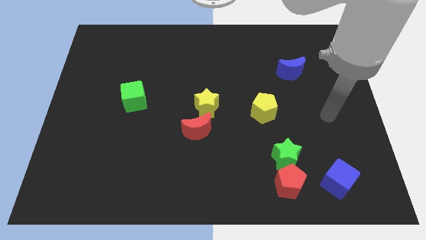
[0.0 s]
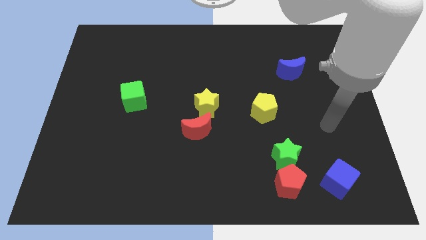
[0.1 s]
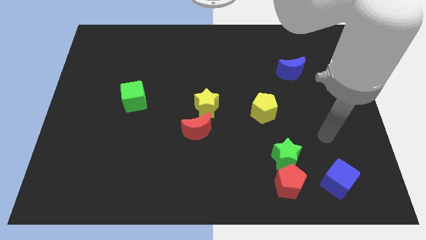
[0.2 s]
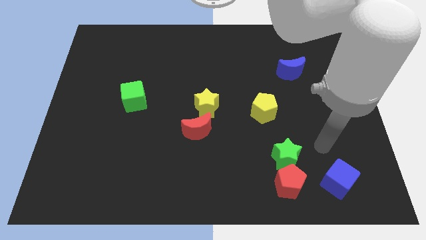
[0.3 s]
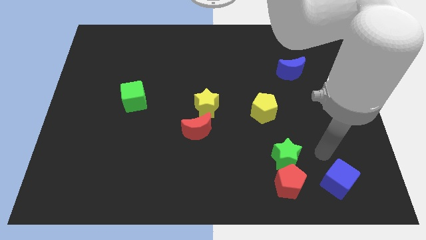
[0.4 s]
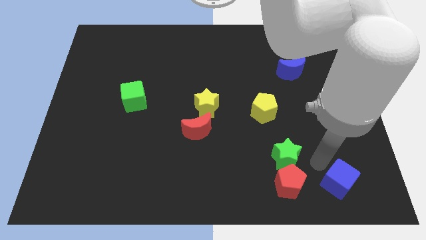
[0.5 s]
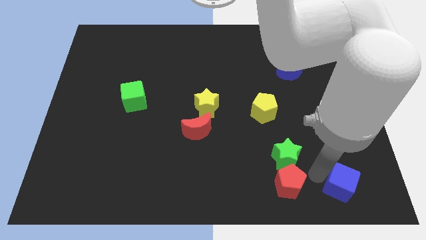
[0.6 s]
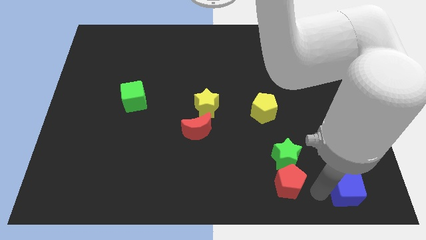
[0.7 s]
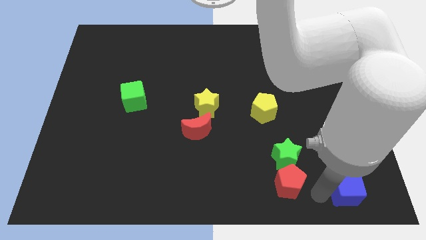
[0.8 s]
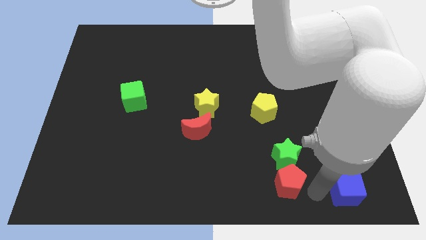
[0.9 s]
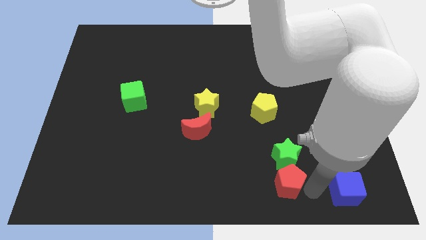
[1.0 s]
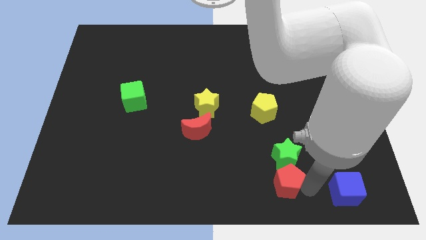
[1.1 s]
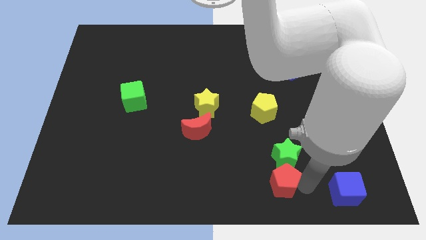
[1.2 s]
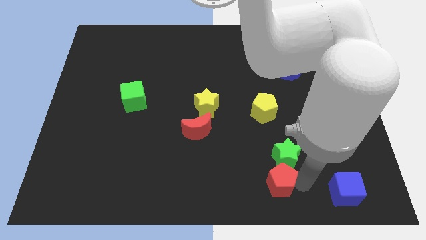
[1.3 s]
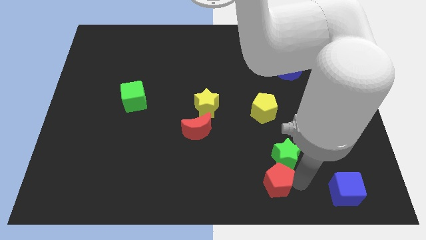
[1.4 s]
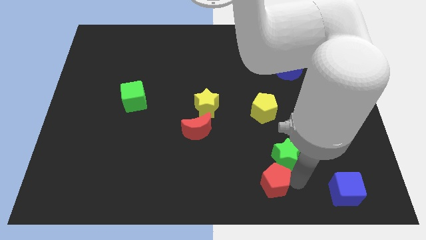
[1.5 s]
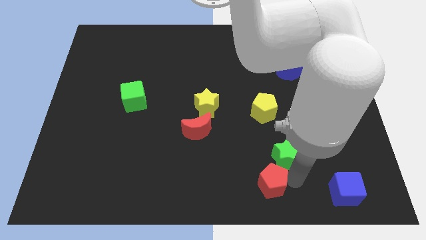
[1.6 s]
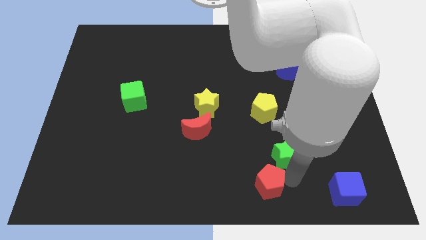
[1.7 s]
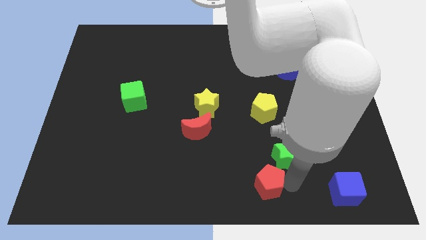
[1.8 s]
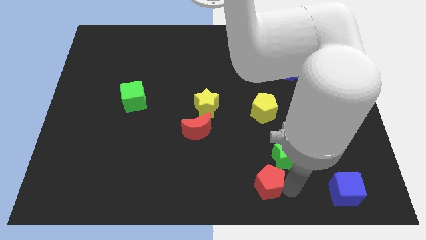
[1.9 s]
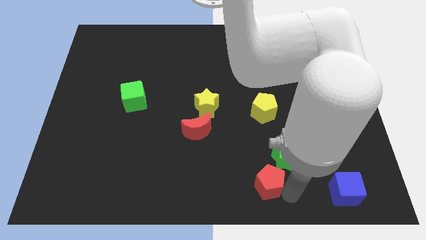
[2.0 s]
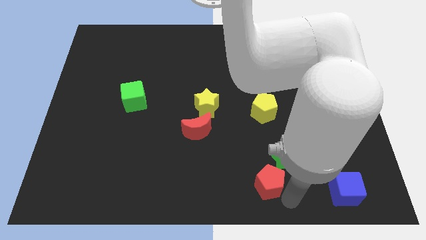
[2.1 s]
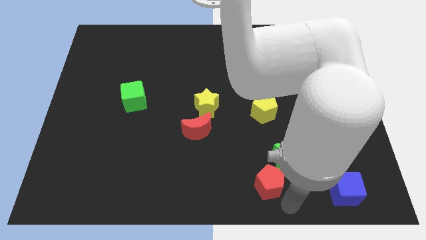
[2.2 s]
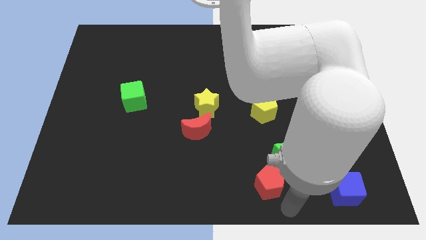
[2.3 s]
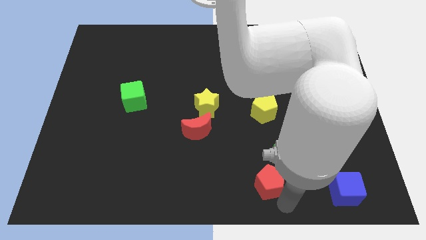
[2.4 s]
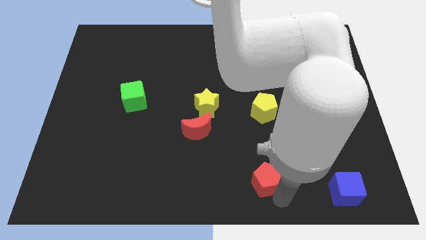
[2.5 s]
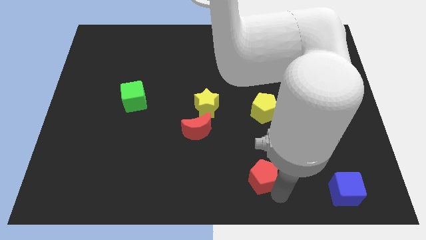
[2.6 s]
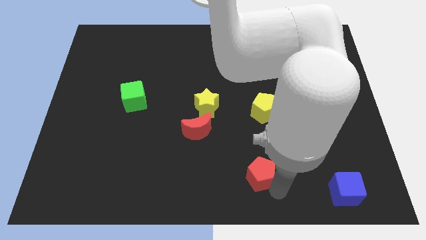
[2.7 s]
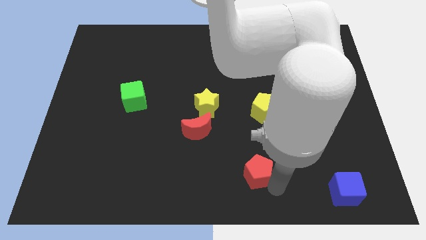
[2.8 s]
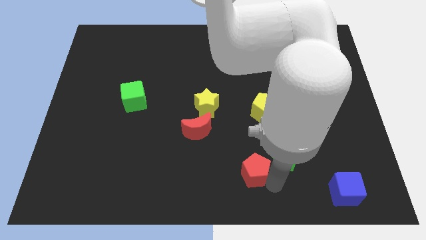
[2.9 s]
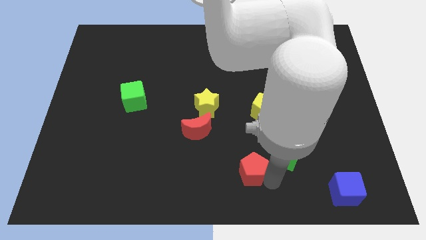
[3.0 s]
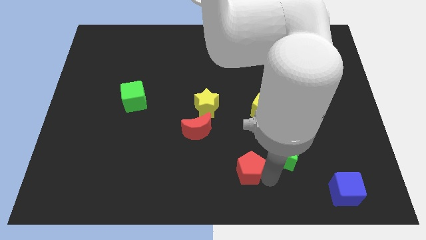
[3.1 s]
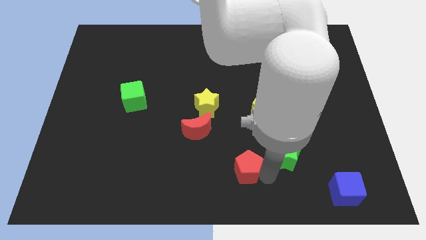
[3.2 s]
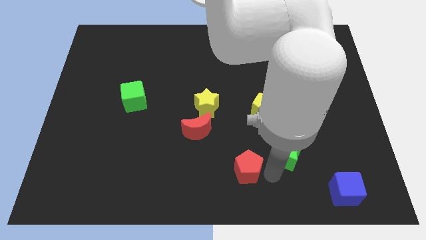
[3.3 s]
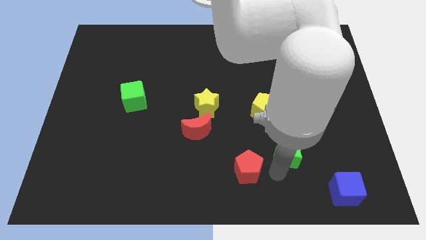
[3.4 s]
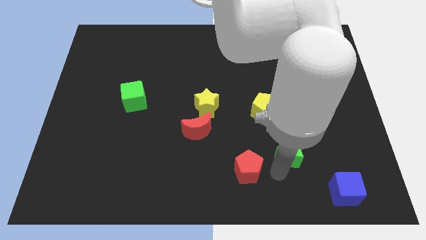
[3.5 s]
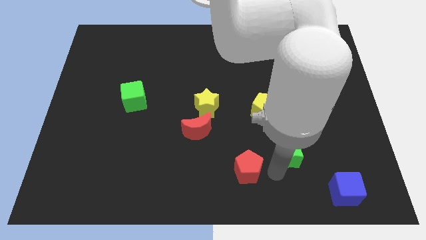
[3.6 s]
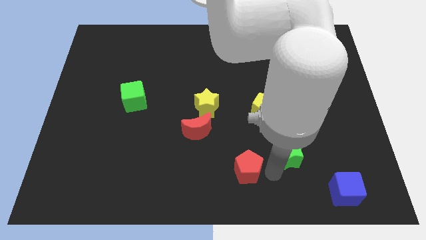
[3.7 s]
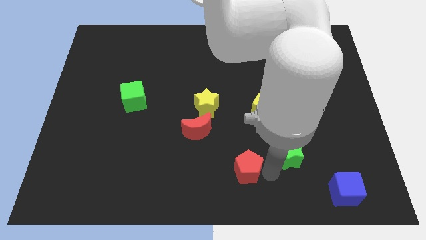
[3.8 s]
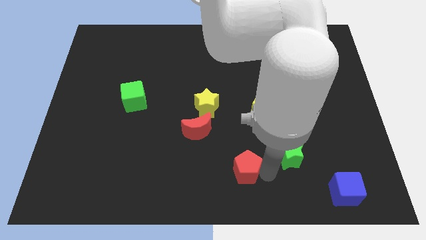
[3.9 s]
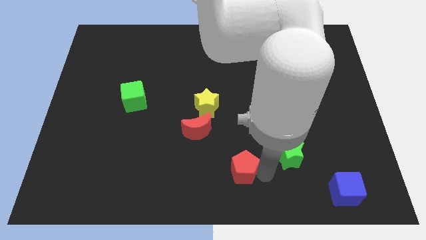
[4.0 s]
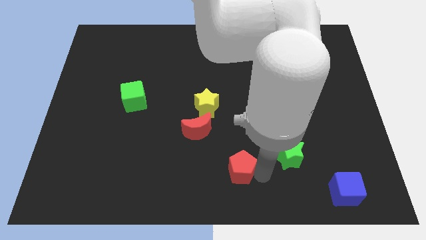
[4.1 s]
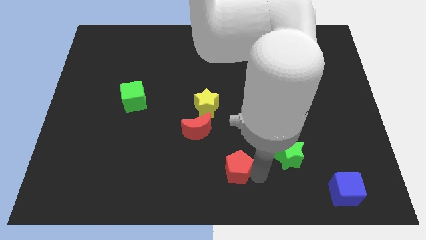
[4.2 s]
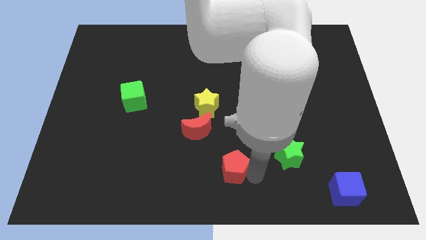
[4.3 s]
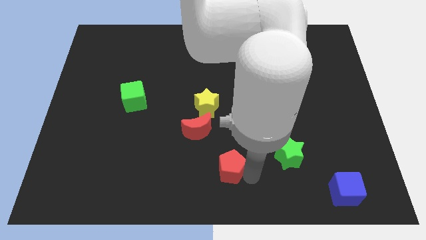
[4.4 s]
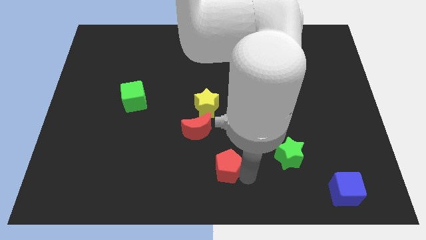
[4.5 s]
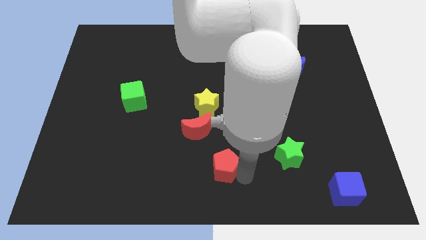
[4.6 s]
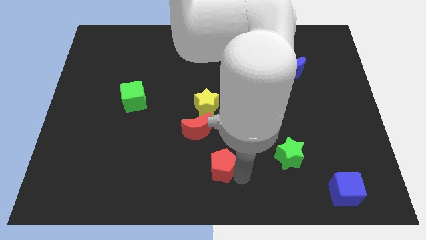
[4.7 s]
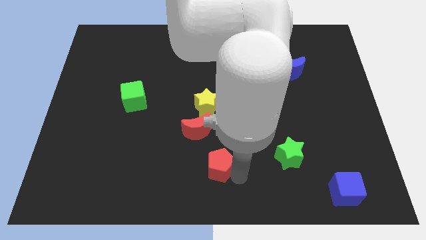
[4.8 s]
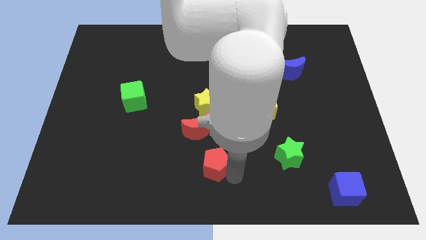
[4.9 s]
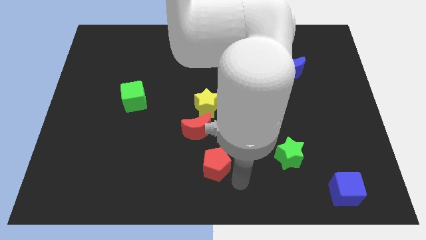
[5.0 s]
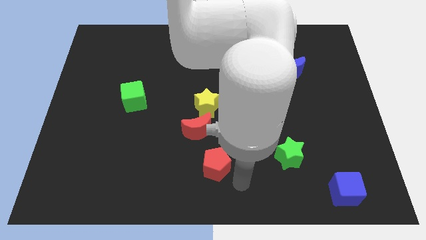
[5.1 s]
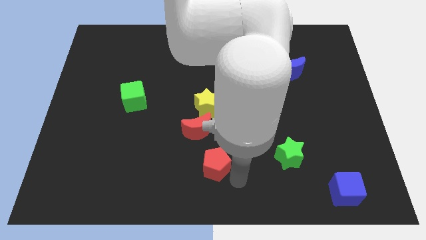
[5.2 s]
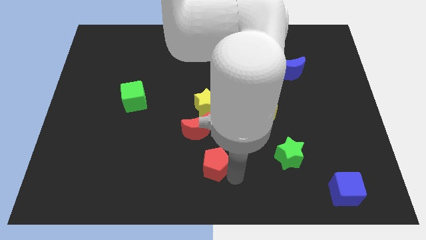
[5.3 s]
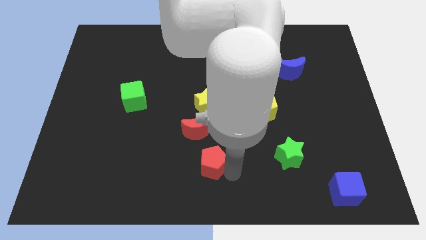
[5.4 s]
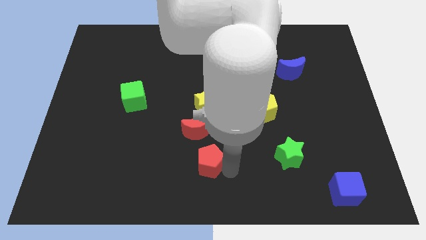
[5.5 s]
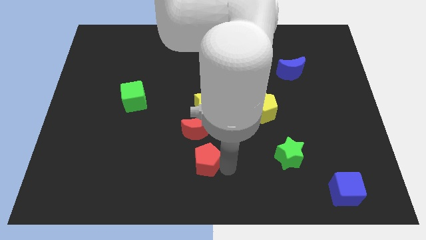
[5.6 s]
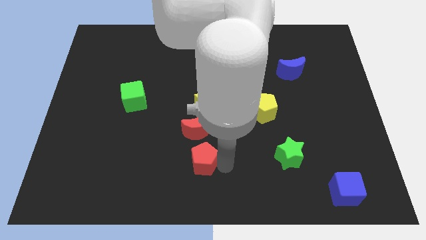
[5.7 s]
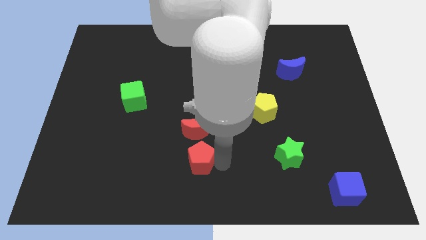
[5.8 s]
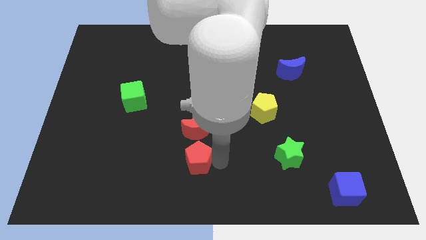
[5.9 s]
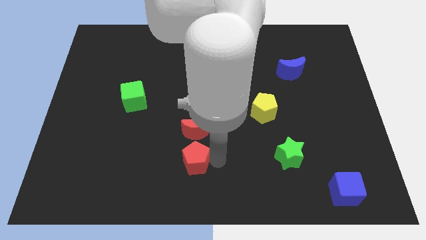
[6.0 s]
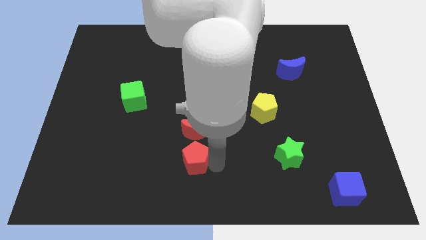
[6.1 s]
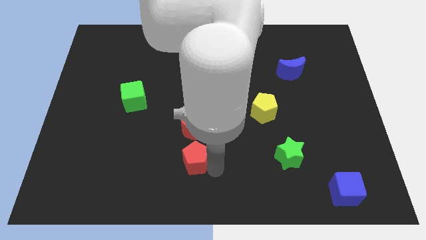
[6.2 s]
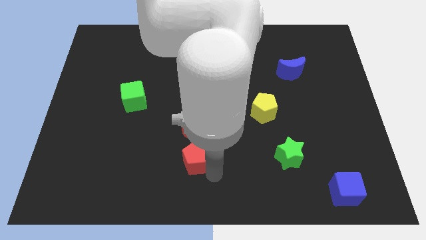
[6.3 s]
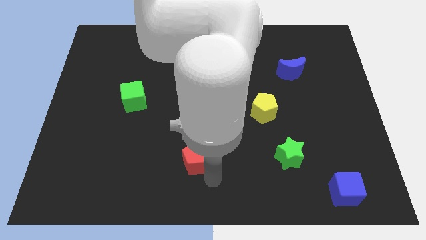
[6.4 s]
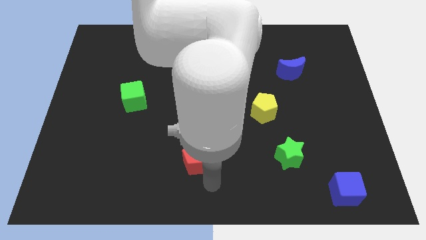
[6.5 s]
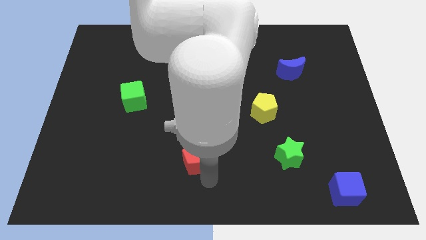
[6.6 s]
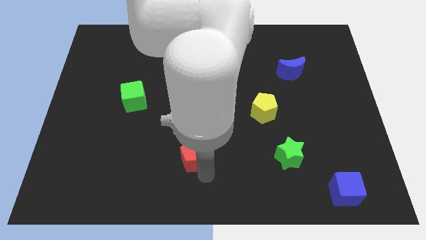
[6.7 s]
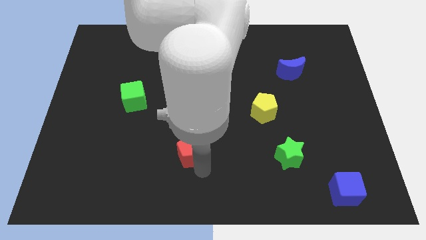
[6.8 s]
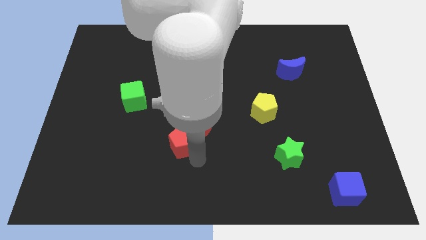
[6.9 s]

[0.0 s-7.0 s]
push the red pentagon to the left side of the red moon

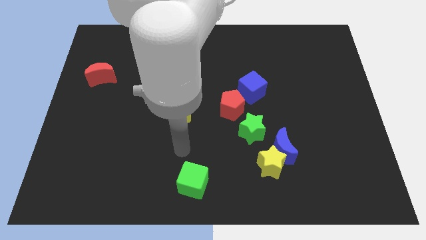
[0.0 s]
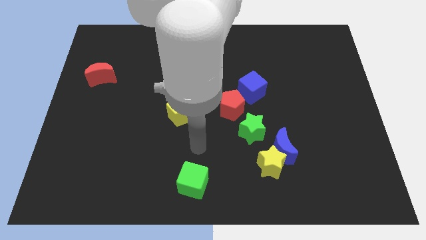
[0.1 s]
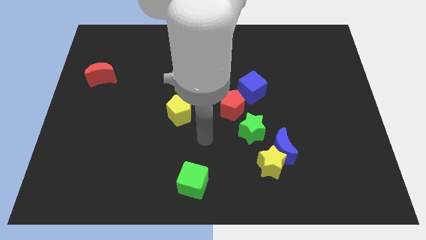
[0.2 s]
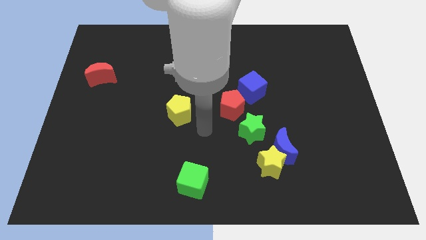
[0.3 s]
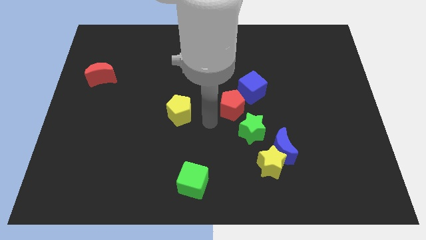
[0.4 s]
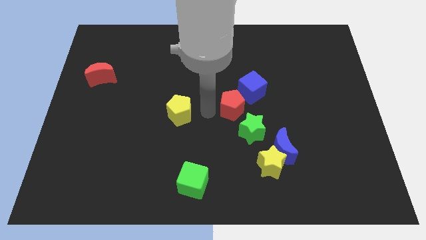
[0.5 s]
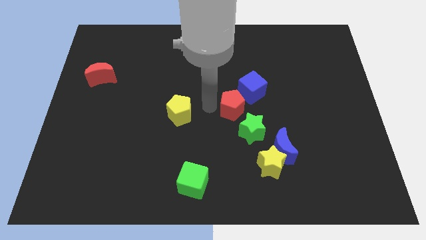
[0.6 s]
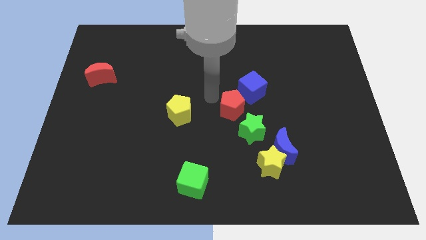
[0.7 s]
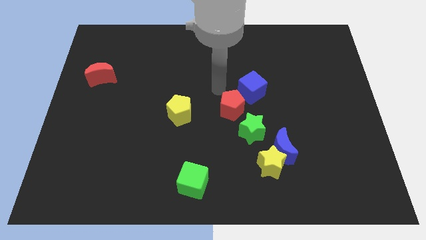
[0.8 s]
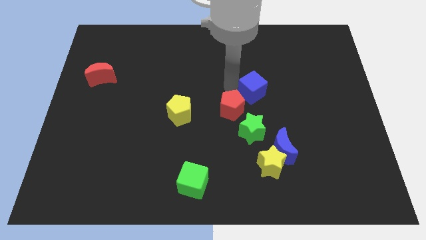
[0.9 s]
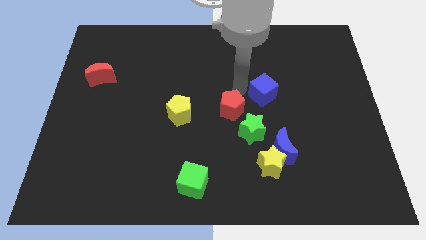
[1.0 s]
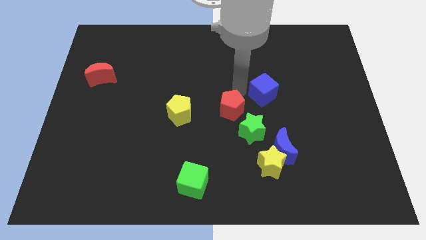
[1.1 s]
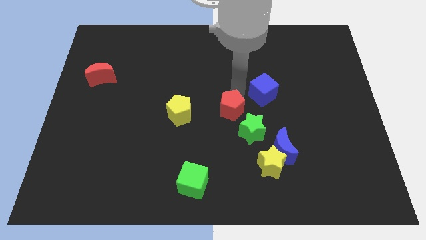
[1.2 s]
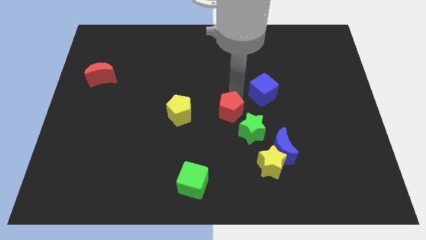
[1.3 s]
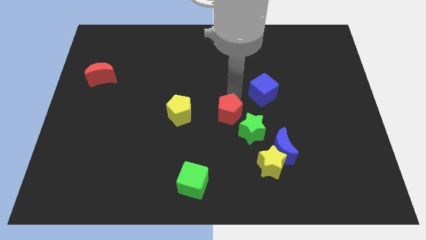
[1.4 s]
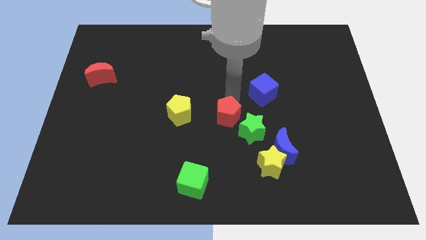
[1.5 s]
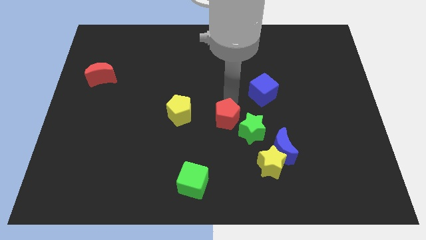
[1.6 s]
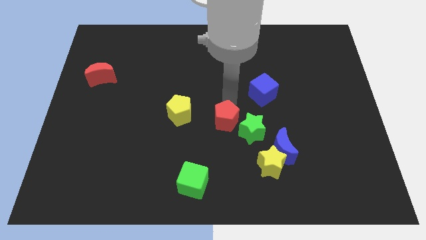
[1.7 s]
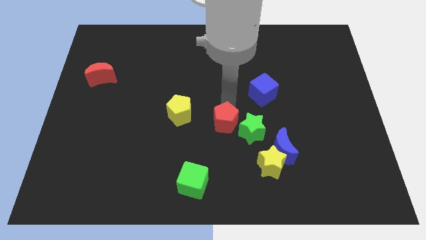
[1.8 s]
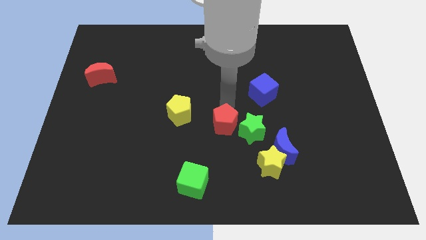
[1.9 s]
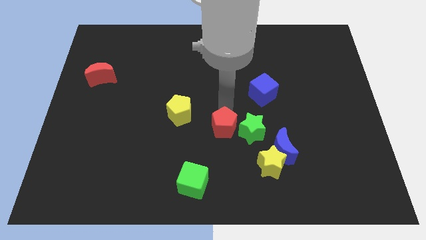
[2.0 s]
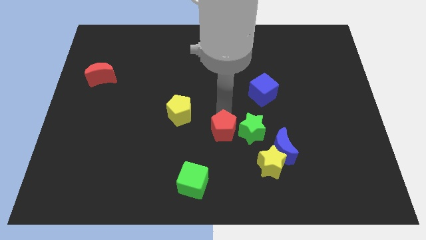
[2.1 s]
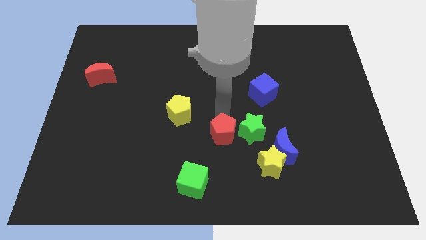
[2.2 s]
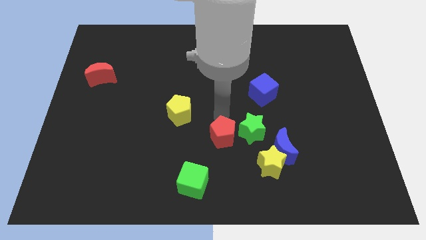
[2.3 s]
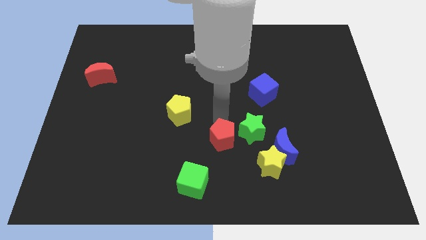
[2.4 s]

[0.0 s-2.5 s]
slide the red pentagon to the top right side of the green cube
